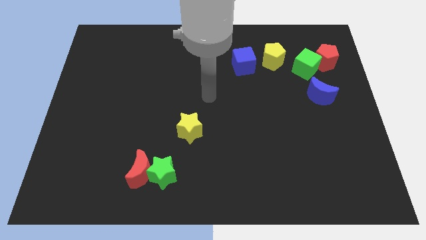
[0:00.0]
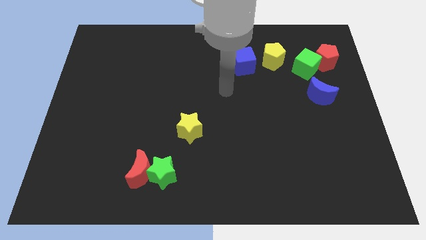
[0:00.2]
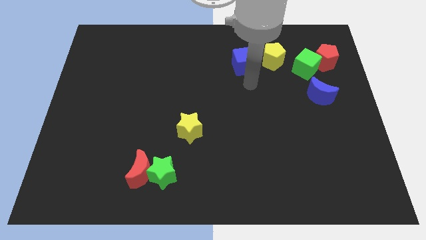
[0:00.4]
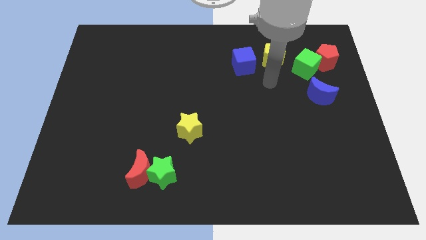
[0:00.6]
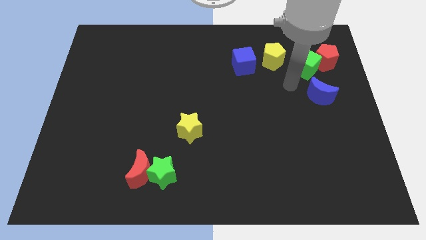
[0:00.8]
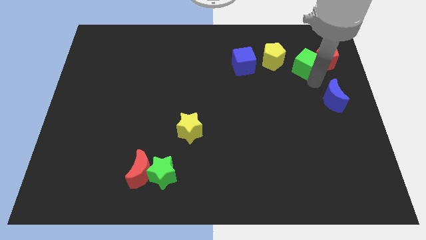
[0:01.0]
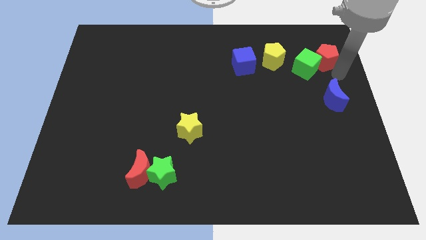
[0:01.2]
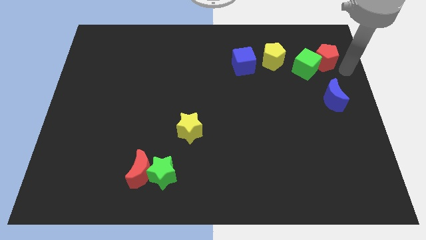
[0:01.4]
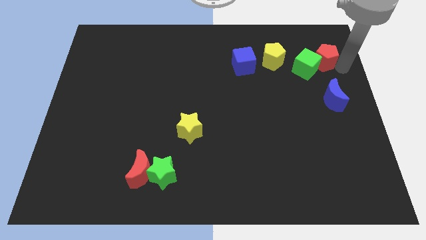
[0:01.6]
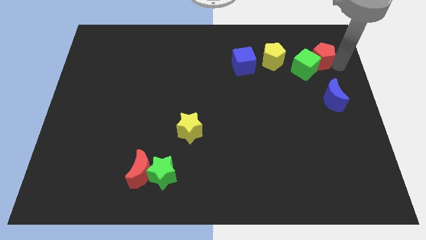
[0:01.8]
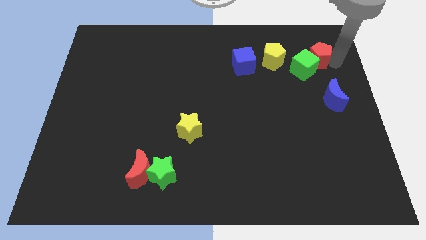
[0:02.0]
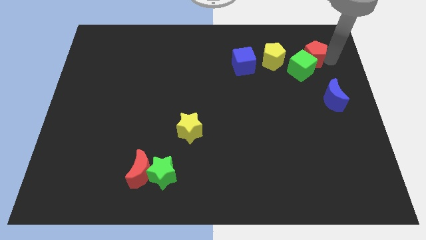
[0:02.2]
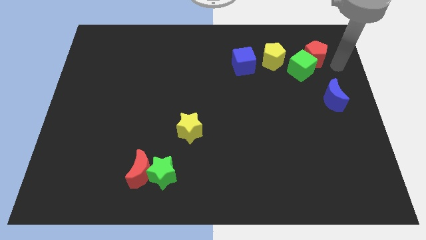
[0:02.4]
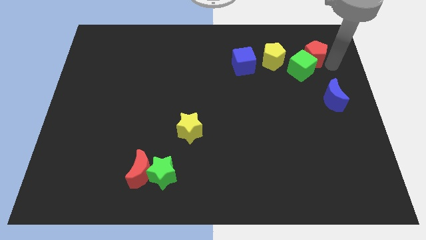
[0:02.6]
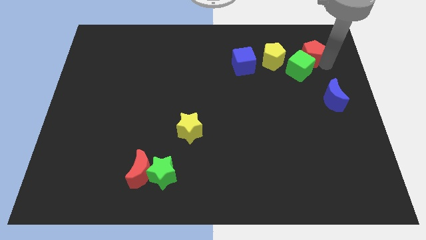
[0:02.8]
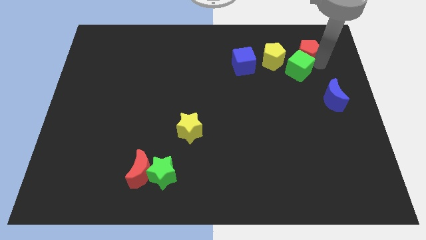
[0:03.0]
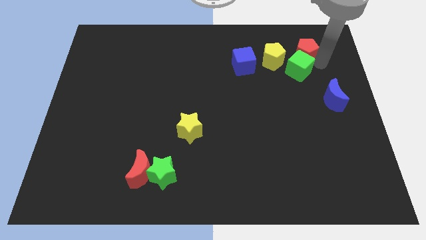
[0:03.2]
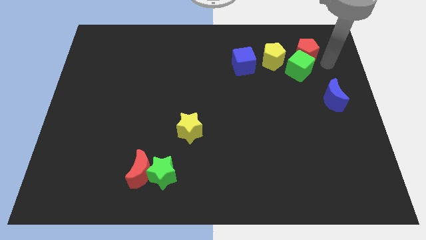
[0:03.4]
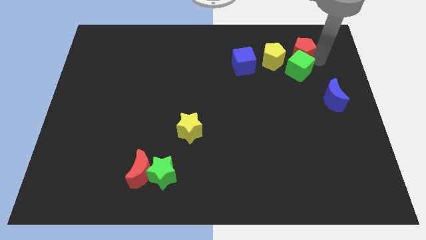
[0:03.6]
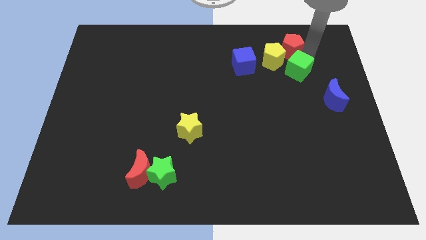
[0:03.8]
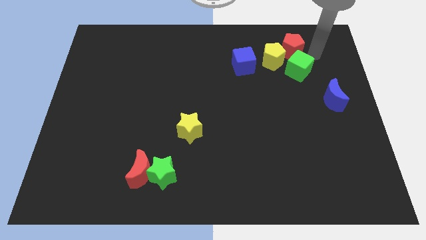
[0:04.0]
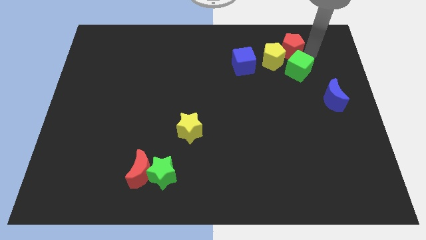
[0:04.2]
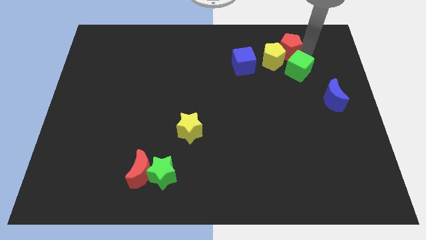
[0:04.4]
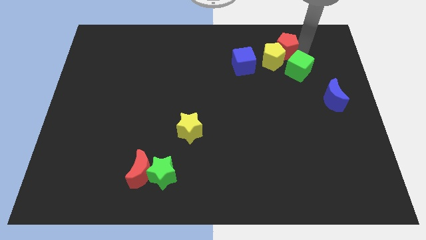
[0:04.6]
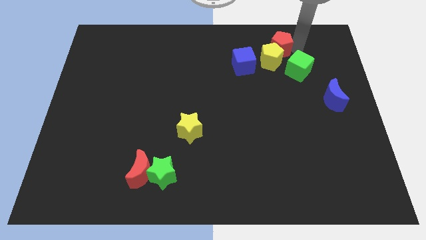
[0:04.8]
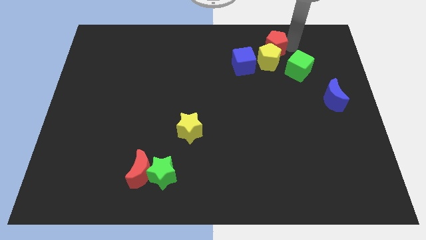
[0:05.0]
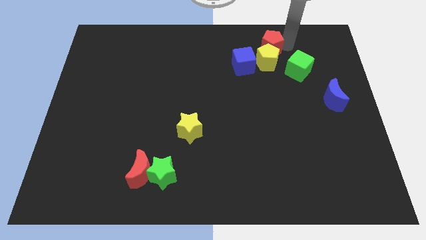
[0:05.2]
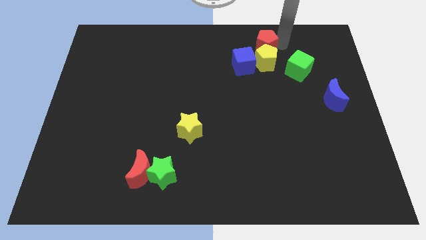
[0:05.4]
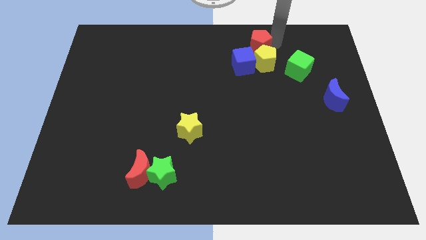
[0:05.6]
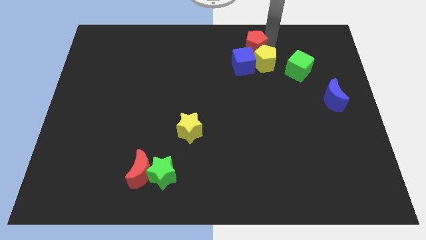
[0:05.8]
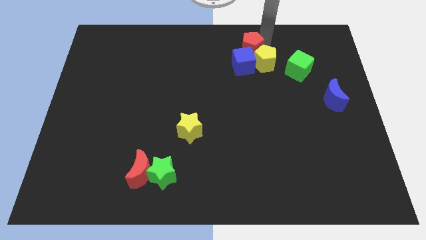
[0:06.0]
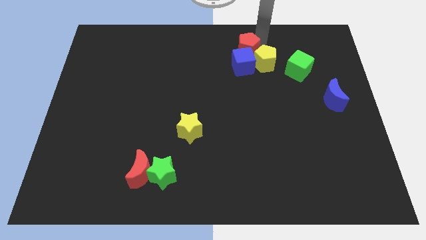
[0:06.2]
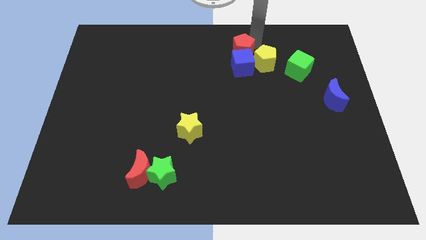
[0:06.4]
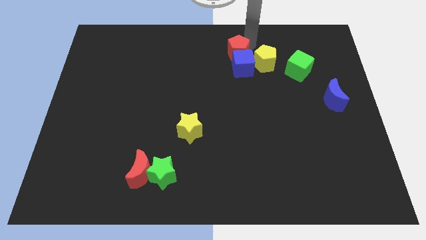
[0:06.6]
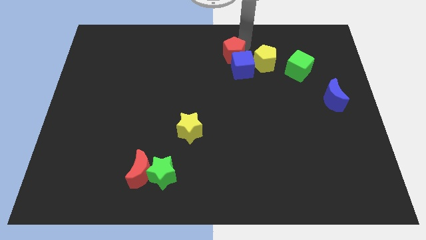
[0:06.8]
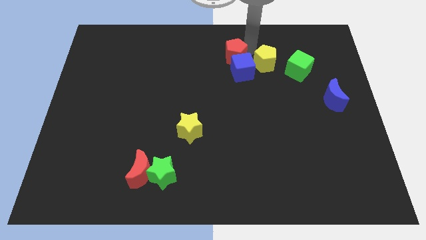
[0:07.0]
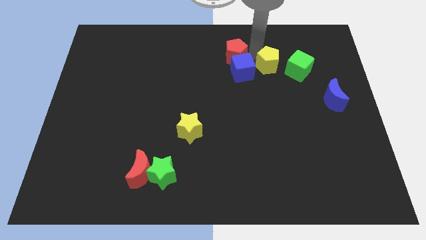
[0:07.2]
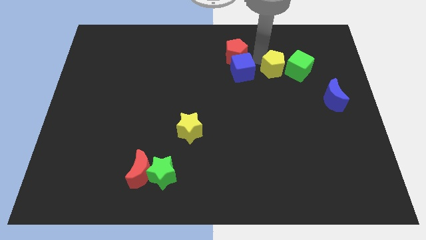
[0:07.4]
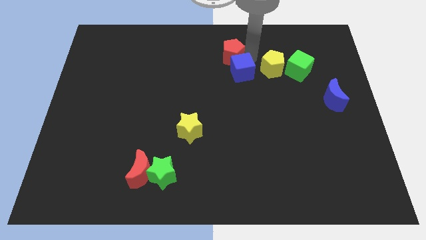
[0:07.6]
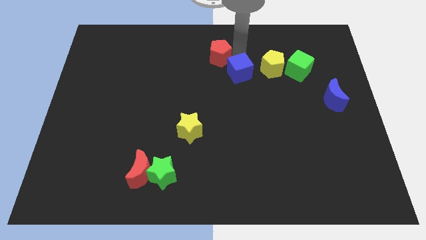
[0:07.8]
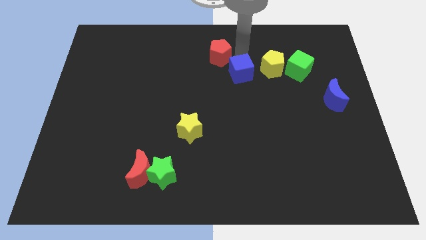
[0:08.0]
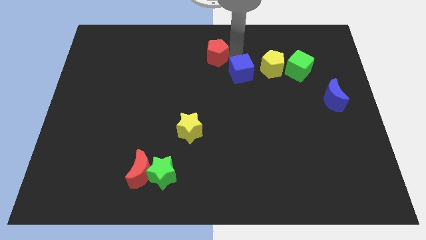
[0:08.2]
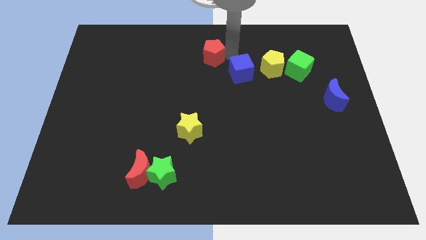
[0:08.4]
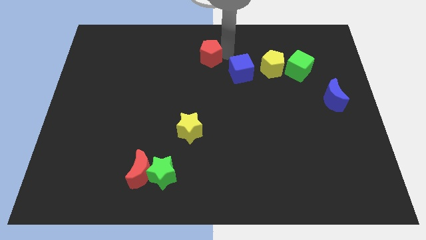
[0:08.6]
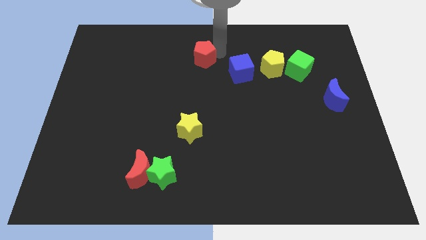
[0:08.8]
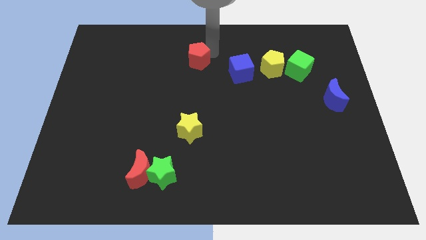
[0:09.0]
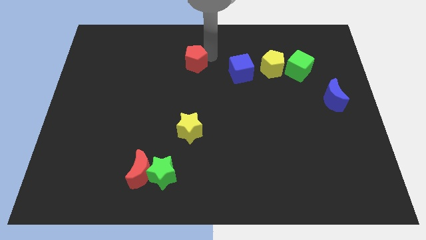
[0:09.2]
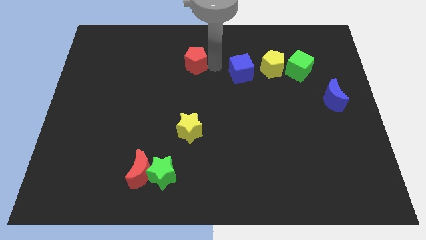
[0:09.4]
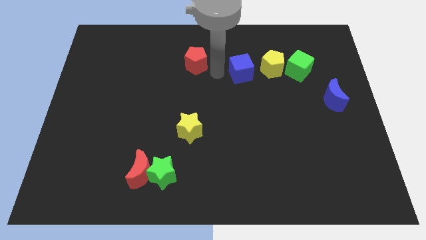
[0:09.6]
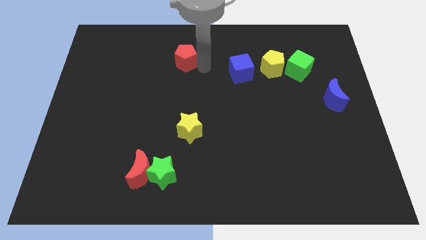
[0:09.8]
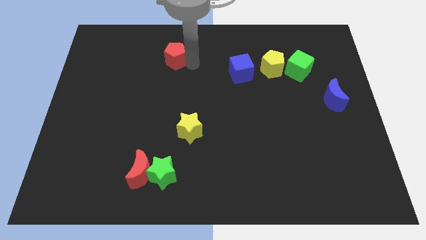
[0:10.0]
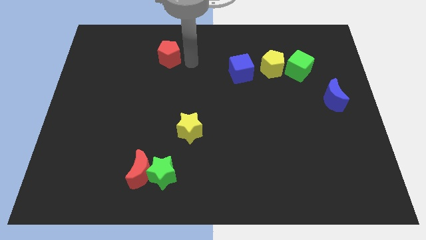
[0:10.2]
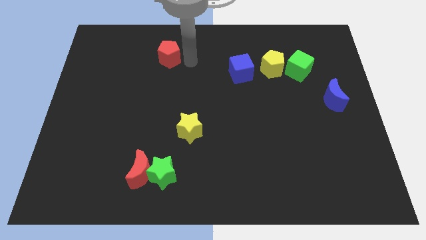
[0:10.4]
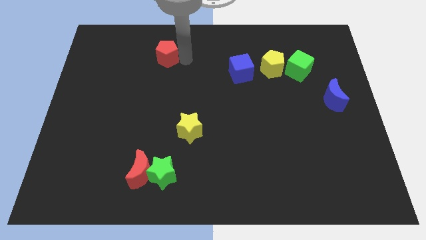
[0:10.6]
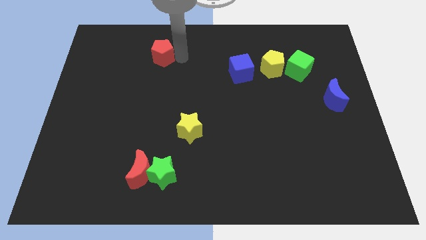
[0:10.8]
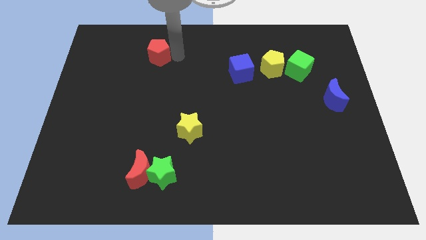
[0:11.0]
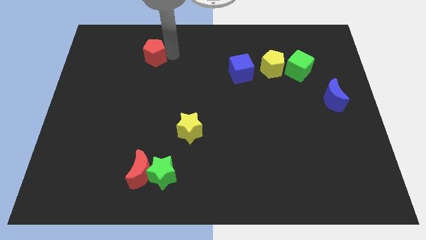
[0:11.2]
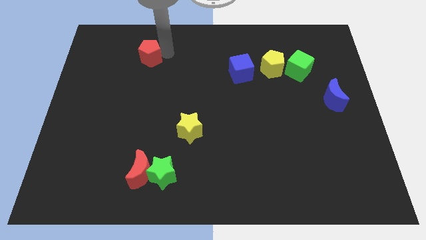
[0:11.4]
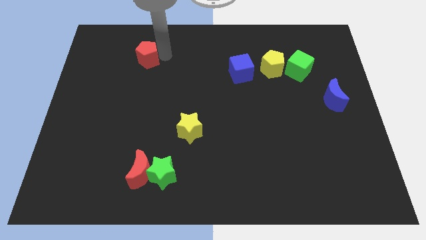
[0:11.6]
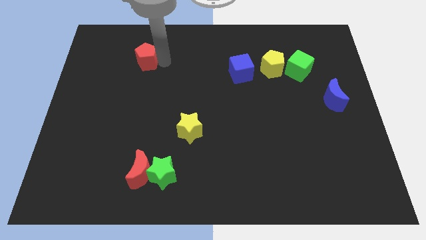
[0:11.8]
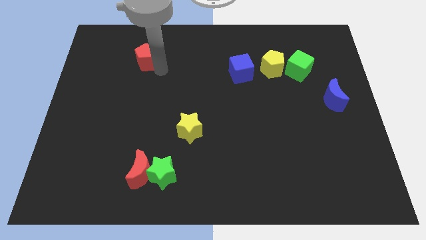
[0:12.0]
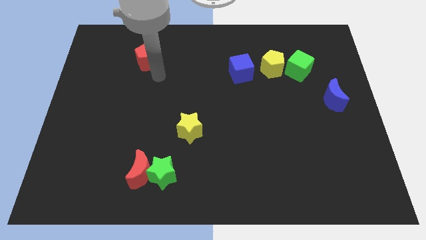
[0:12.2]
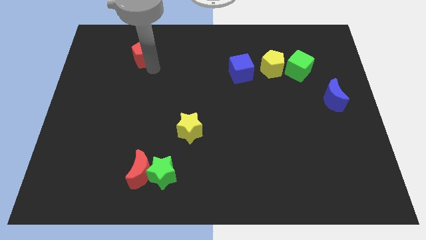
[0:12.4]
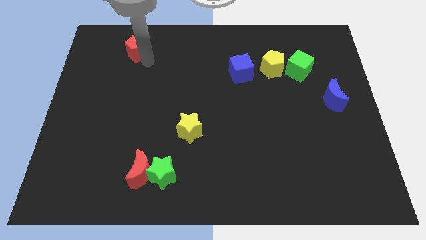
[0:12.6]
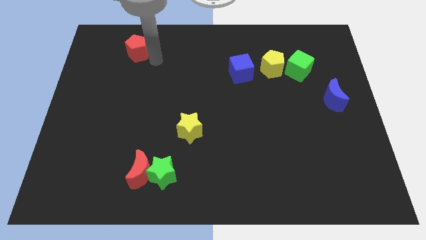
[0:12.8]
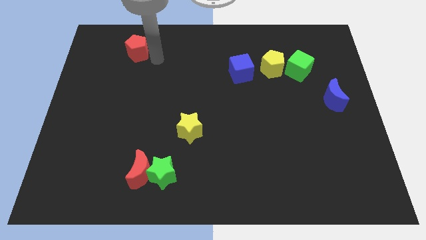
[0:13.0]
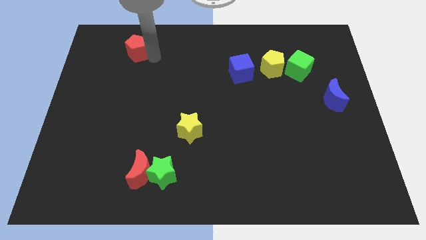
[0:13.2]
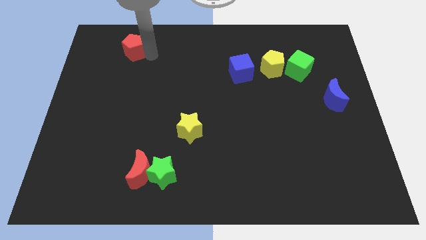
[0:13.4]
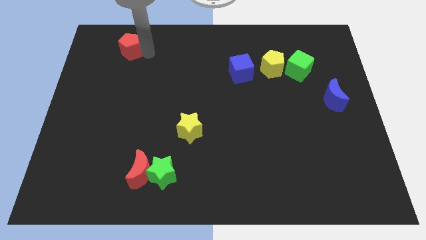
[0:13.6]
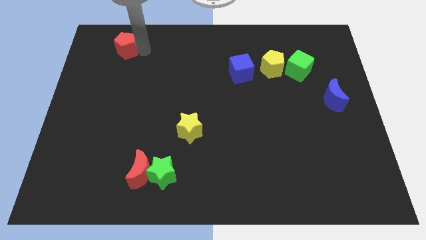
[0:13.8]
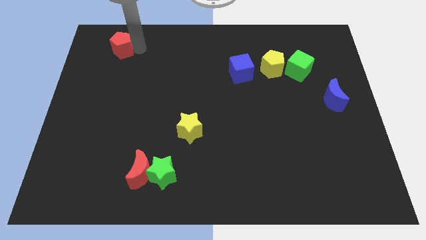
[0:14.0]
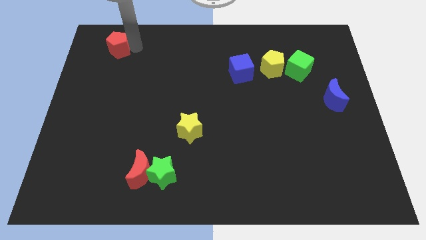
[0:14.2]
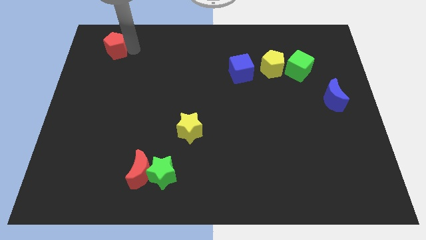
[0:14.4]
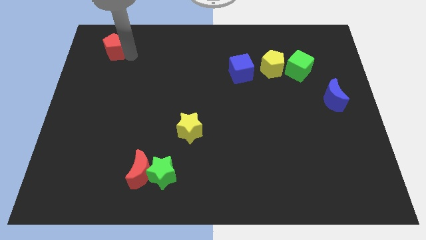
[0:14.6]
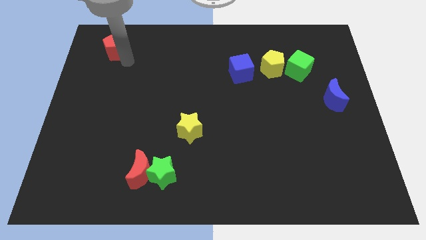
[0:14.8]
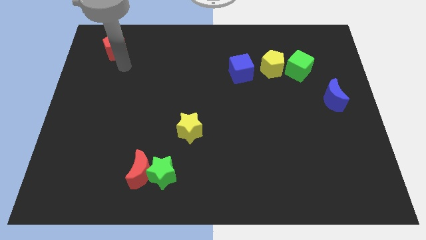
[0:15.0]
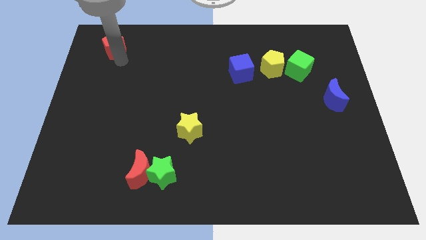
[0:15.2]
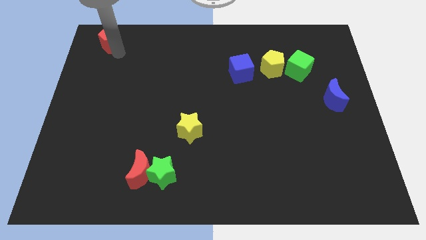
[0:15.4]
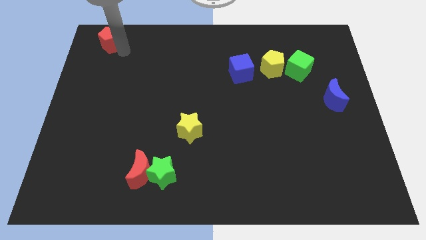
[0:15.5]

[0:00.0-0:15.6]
put the red pentagon to the upper left corner
